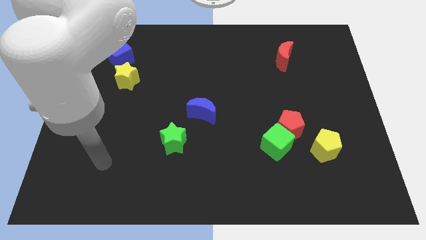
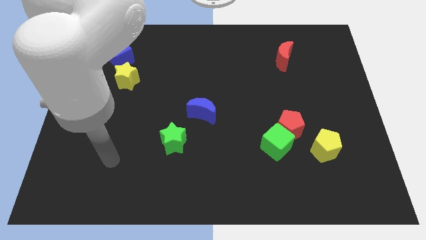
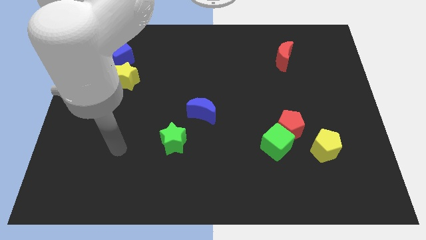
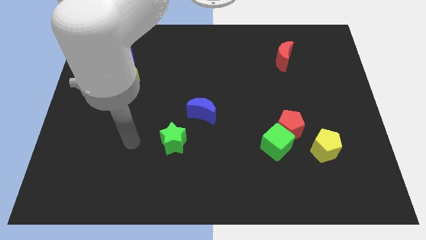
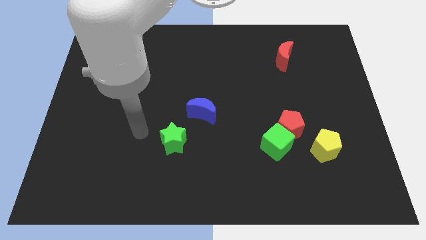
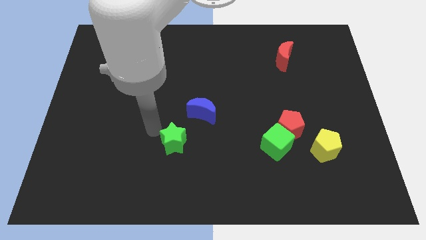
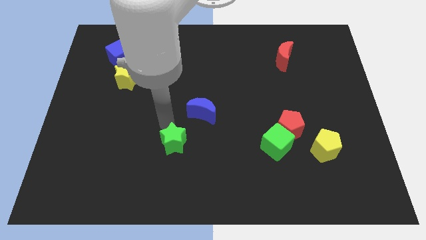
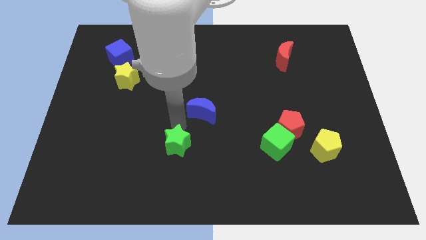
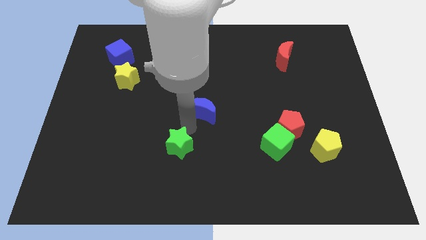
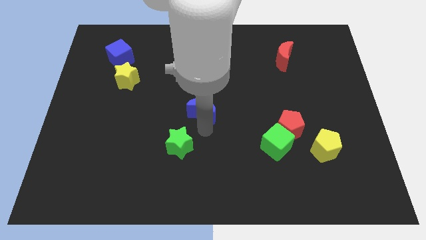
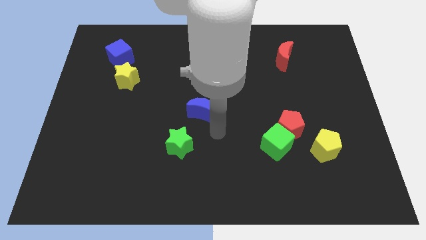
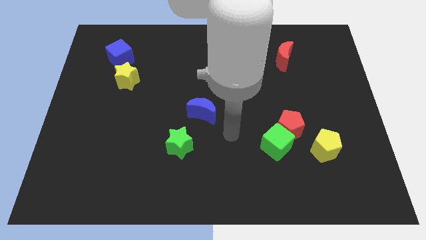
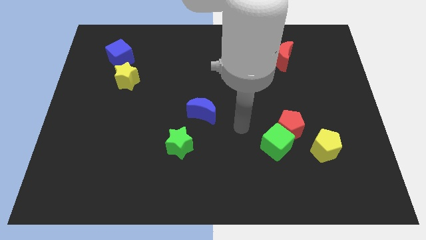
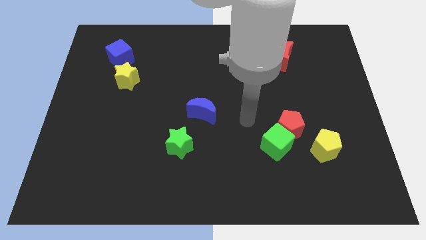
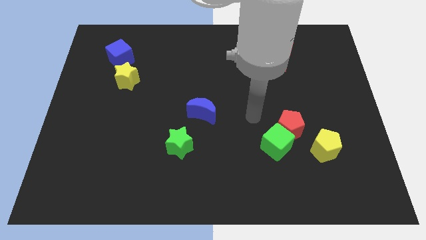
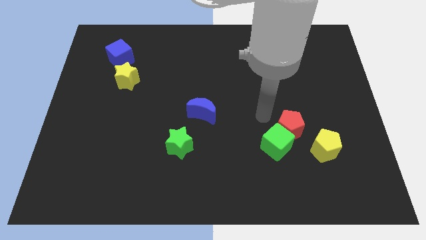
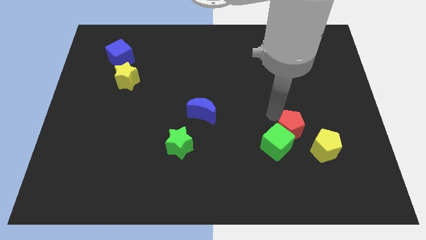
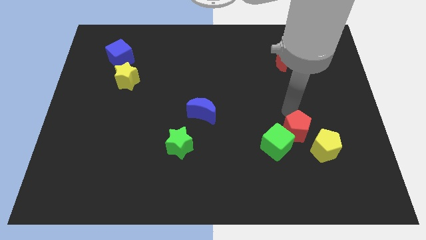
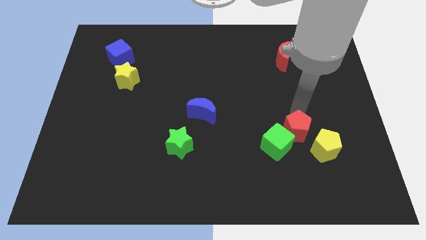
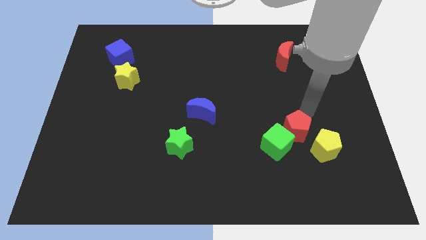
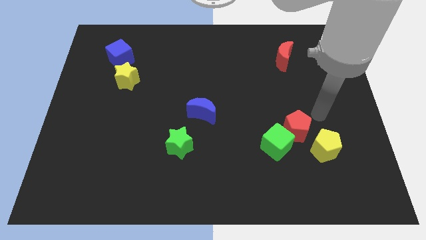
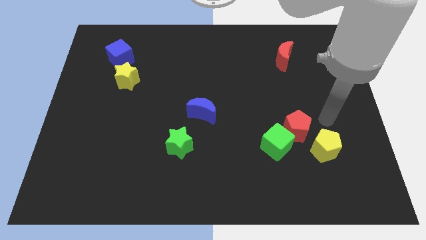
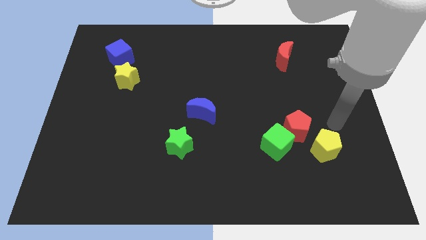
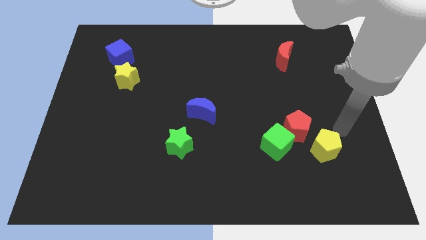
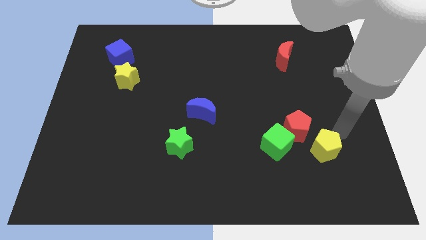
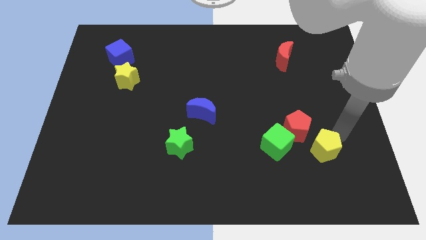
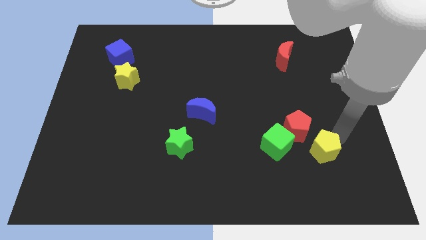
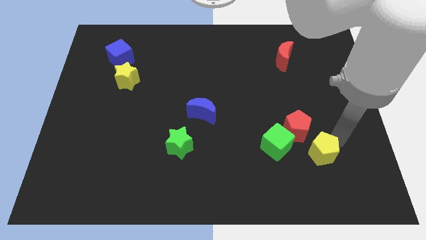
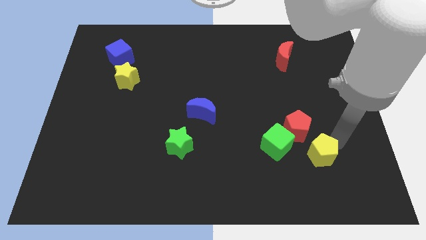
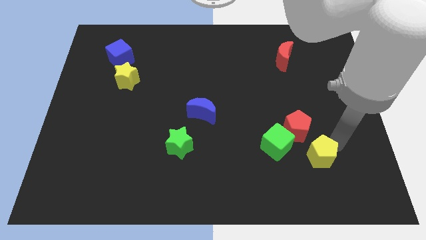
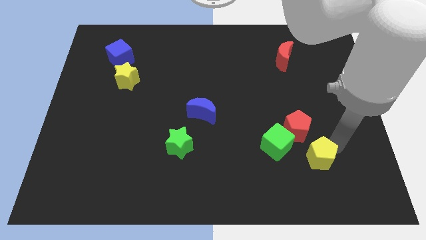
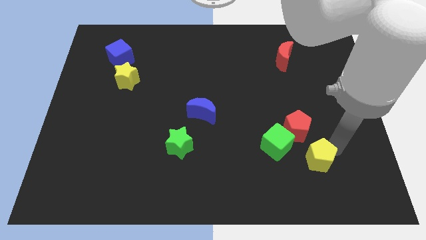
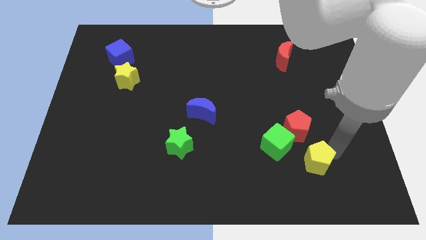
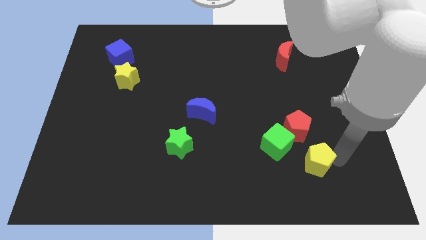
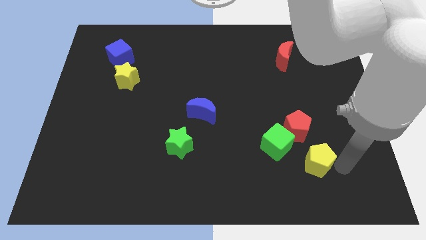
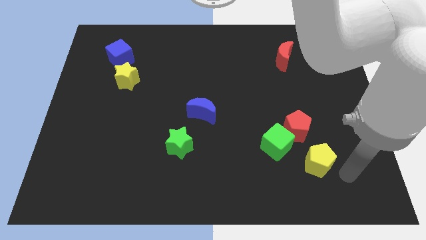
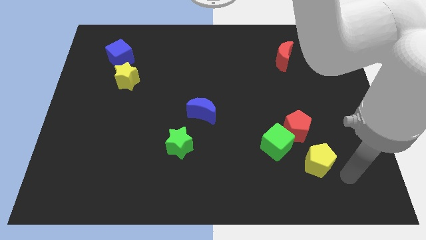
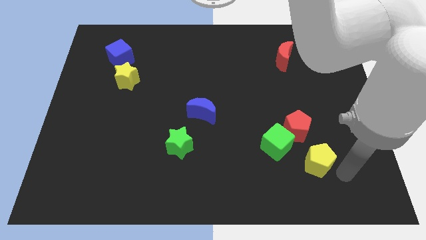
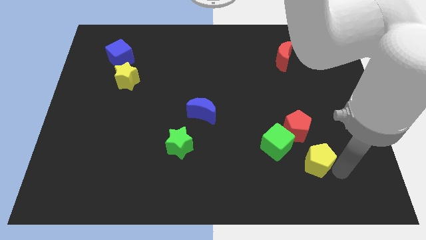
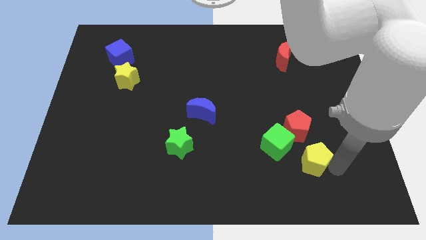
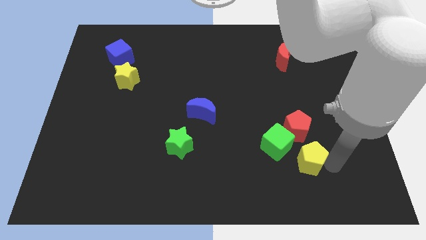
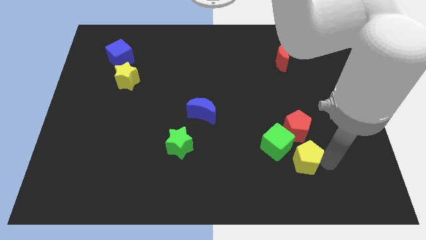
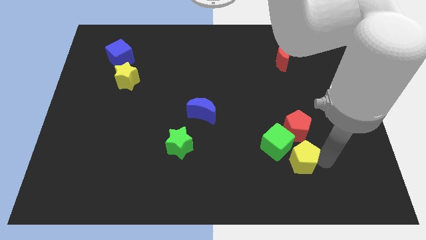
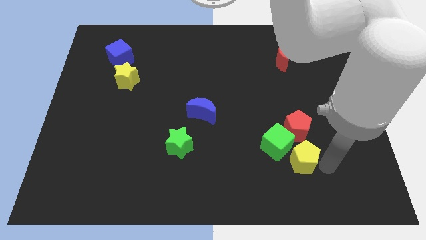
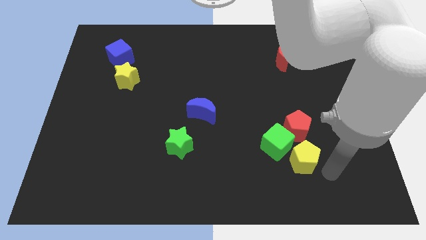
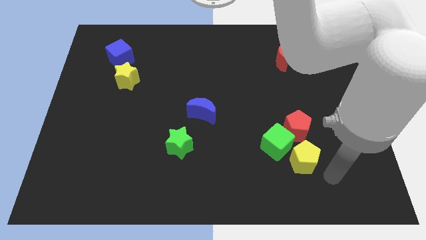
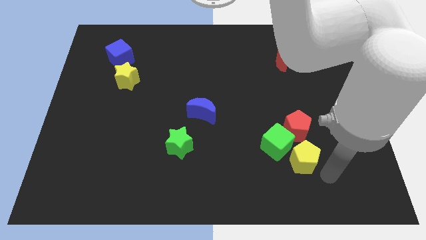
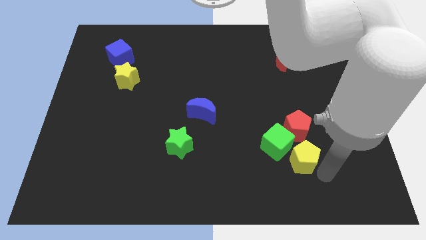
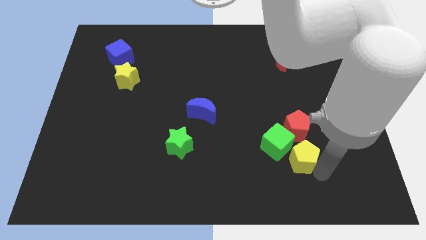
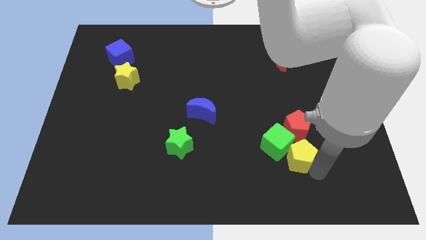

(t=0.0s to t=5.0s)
move the yellow pentagon next to the green cube

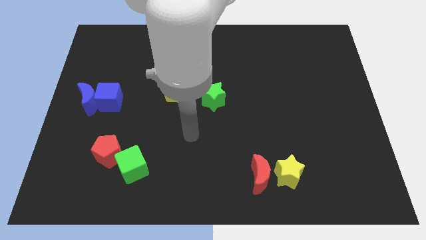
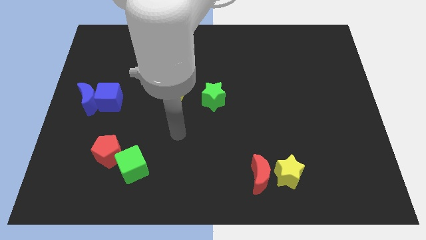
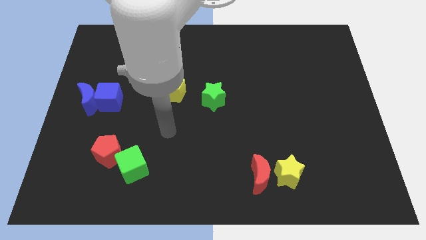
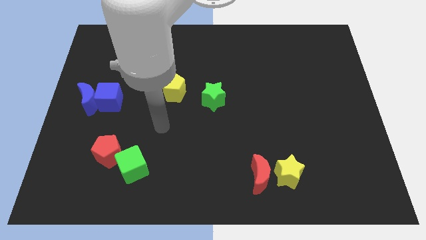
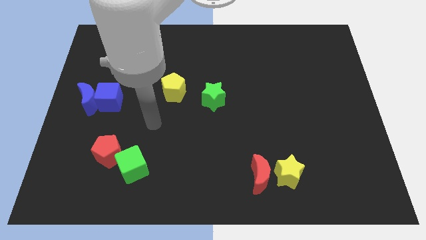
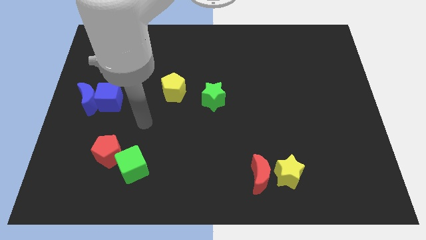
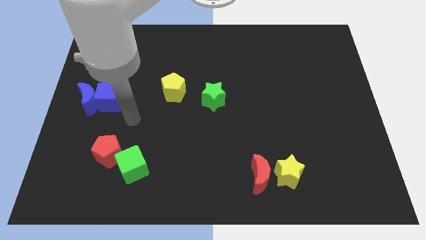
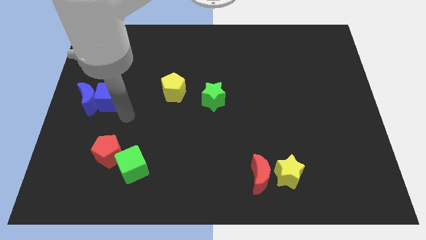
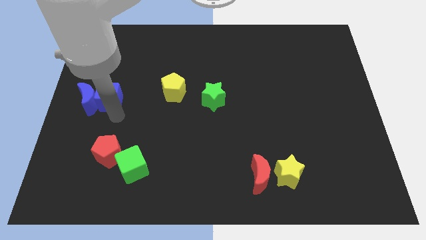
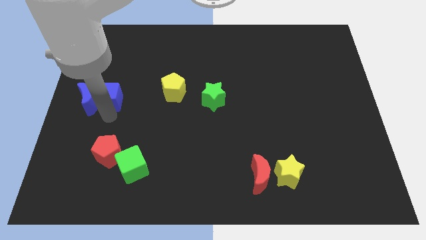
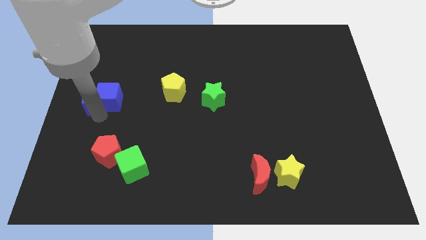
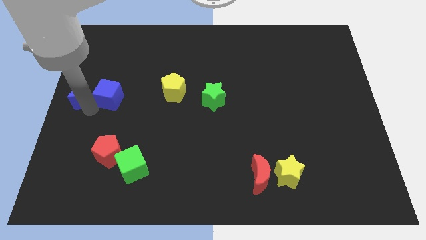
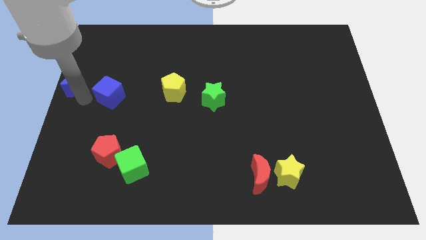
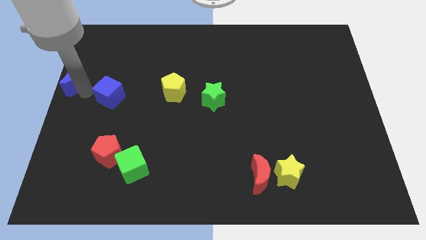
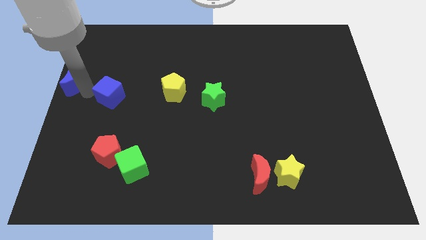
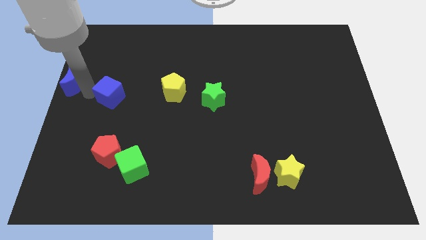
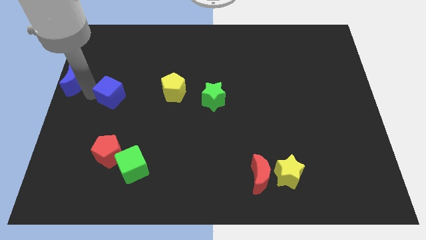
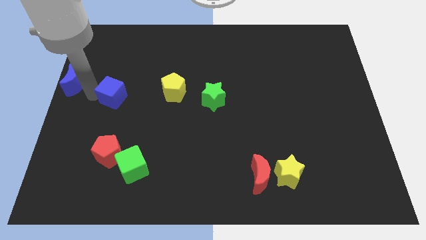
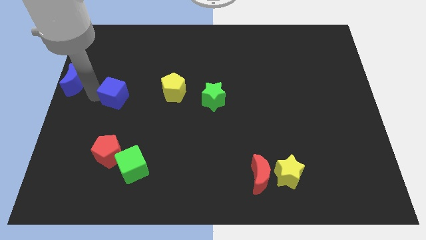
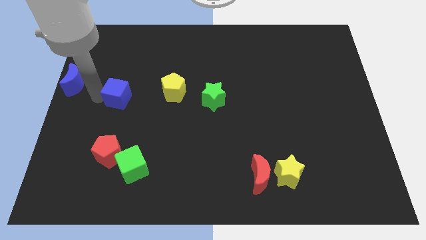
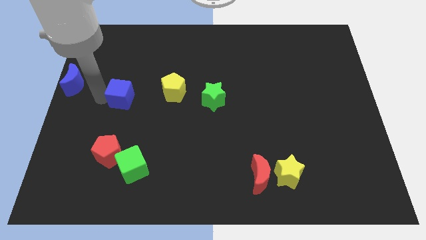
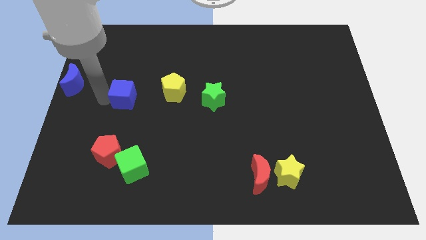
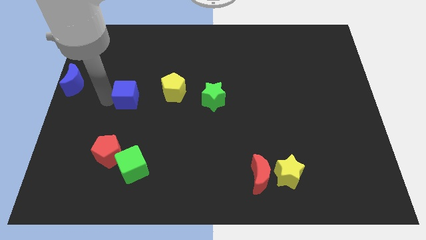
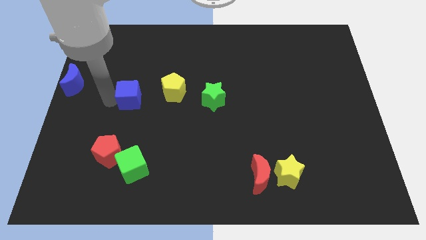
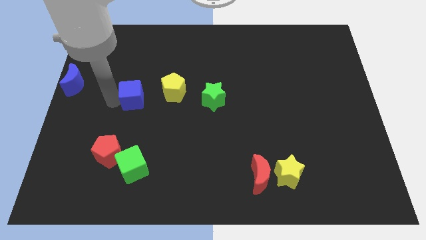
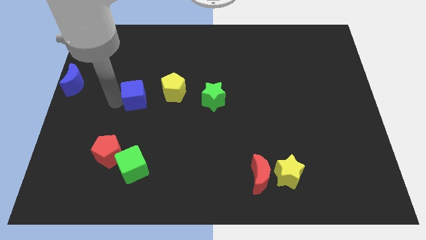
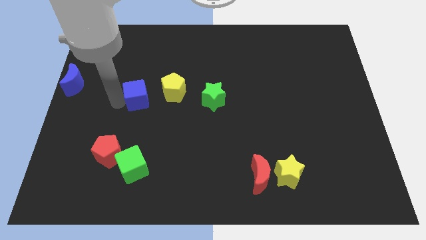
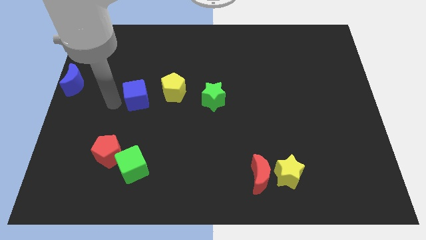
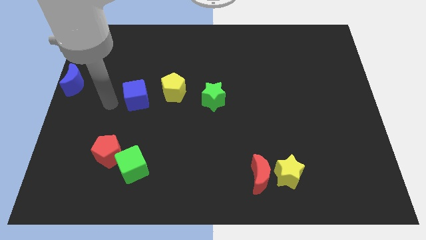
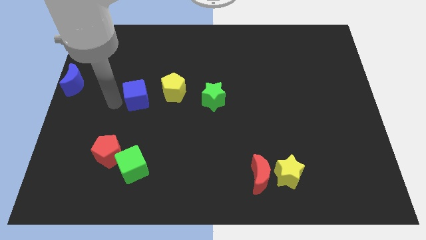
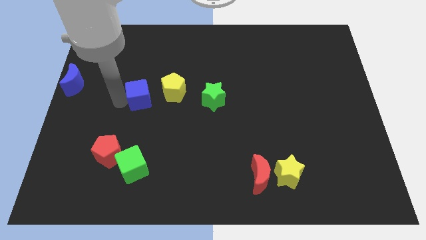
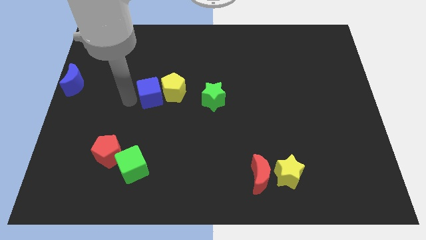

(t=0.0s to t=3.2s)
push the blue cube close to the yellow pentagon

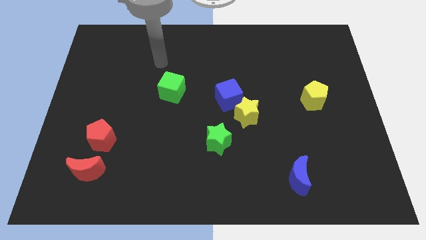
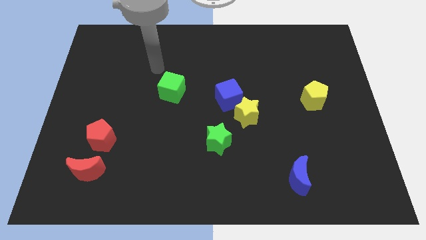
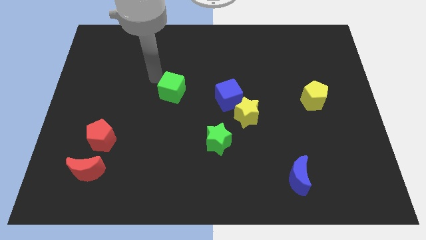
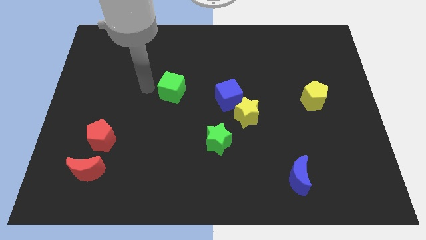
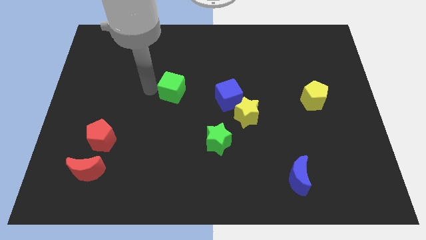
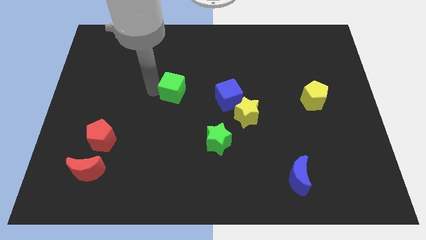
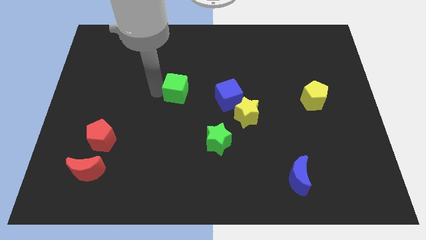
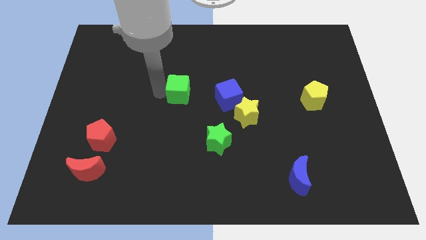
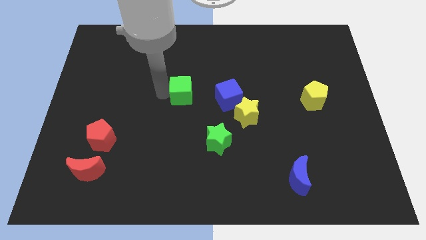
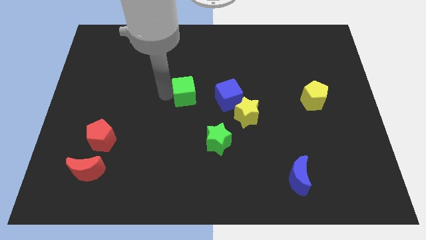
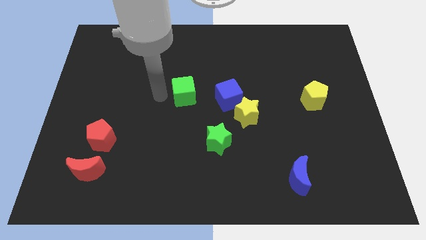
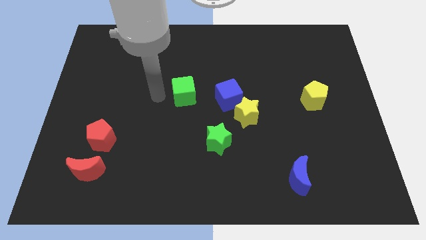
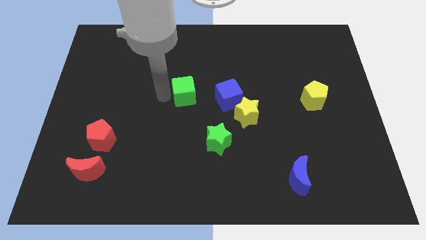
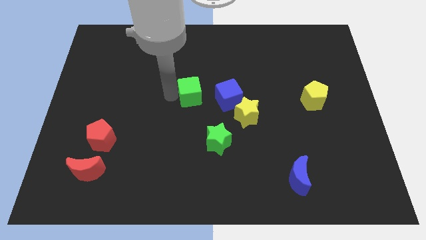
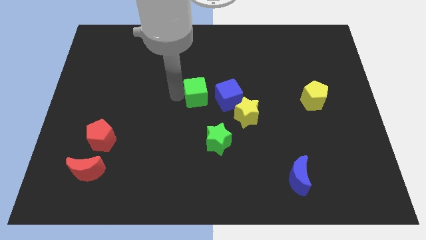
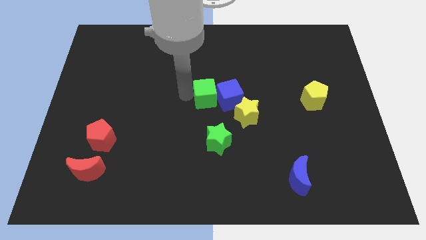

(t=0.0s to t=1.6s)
put the green cube close to the blue cube
